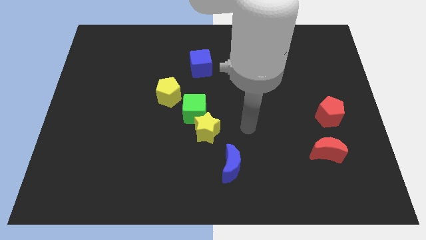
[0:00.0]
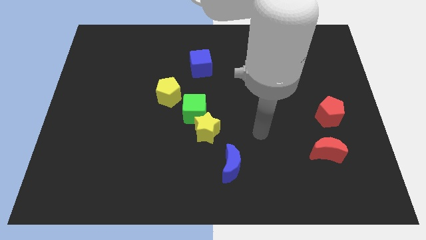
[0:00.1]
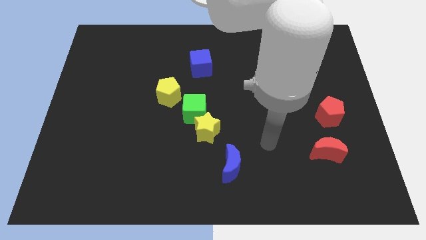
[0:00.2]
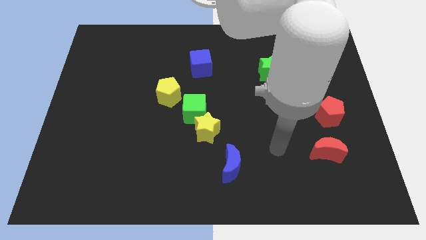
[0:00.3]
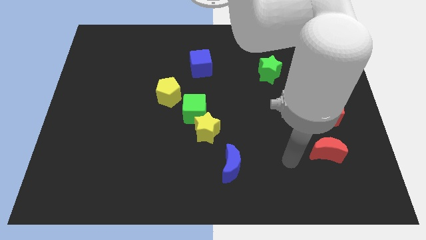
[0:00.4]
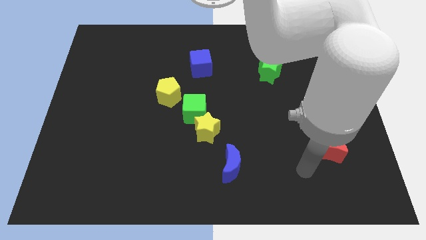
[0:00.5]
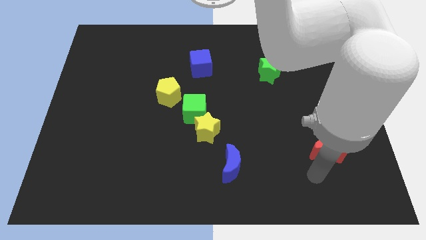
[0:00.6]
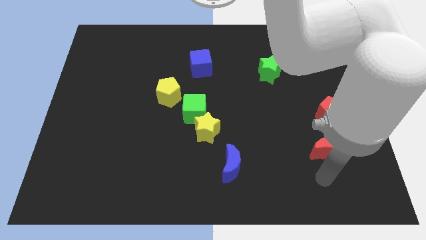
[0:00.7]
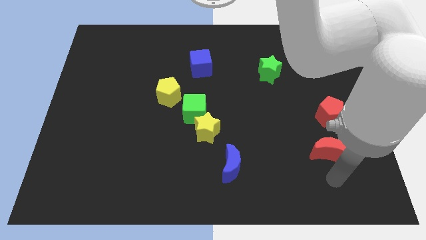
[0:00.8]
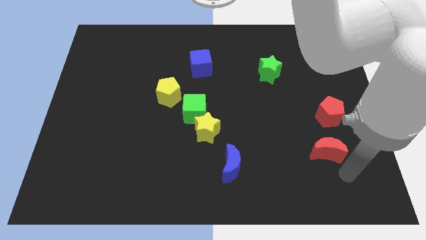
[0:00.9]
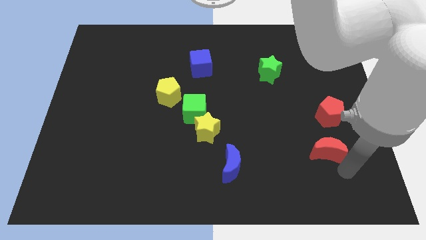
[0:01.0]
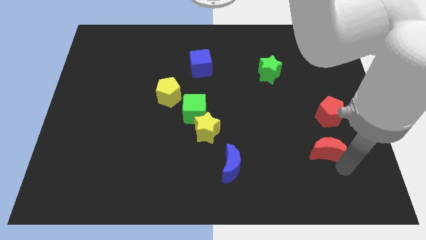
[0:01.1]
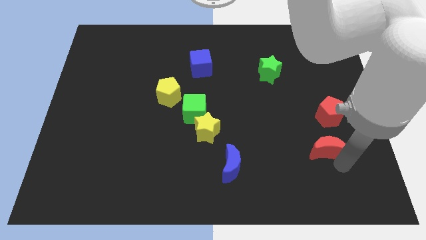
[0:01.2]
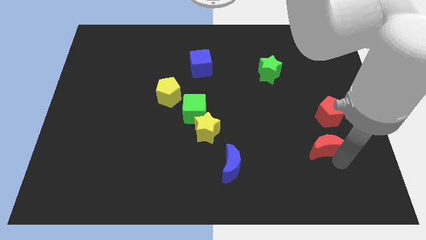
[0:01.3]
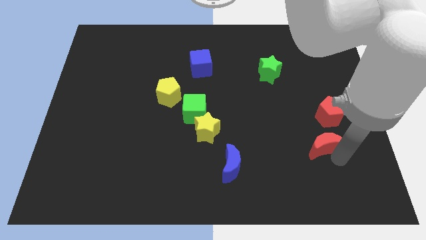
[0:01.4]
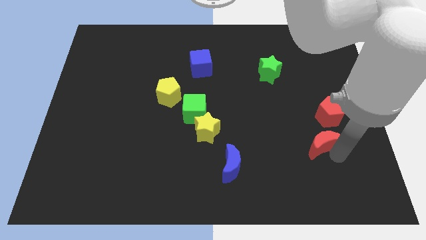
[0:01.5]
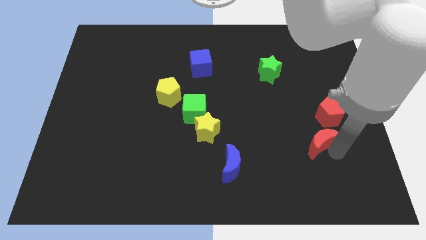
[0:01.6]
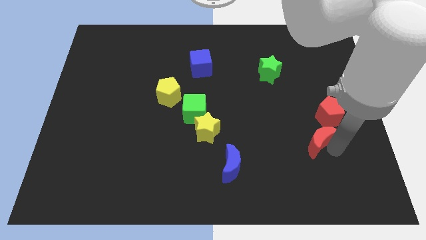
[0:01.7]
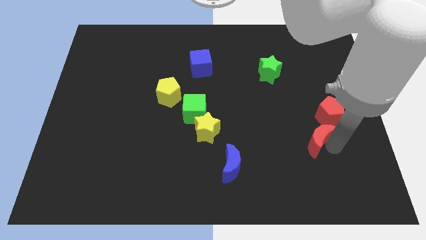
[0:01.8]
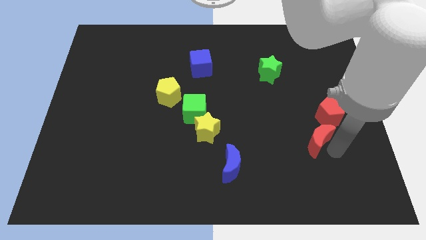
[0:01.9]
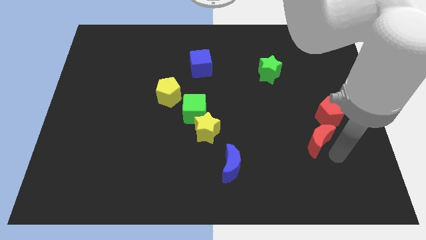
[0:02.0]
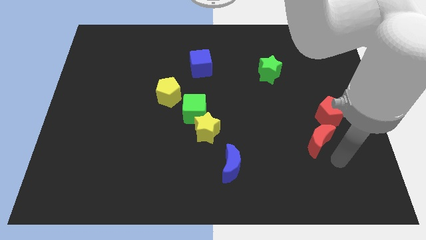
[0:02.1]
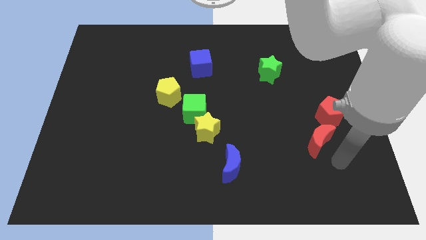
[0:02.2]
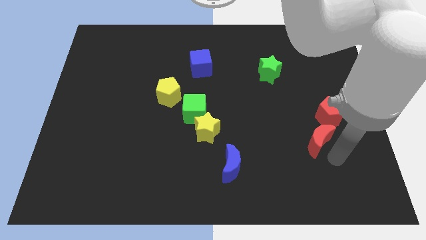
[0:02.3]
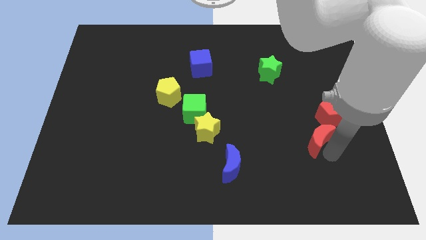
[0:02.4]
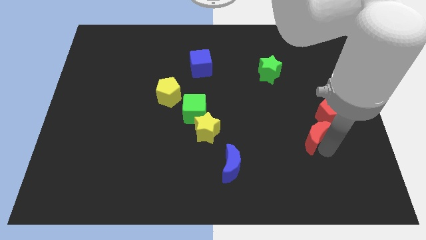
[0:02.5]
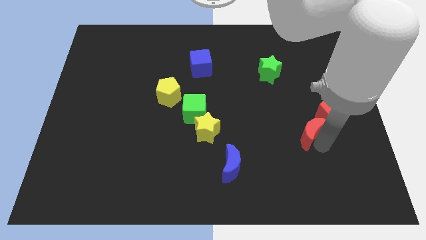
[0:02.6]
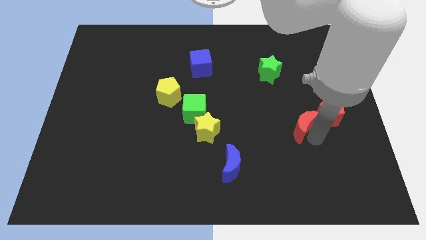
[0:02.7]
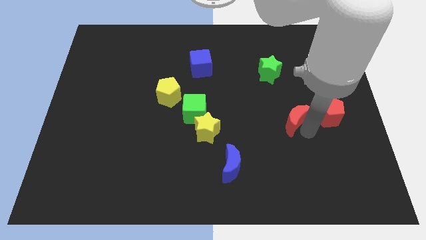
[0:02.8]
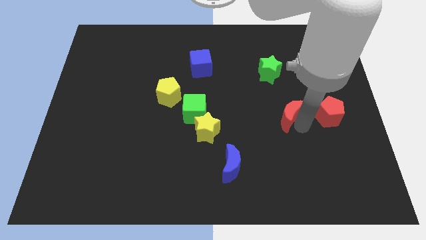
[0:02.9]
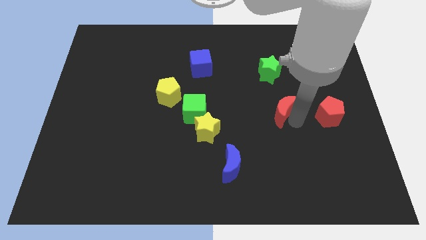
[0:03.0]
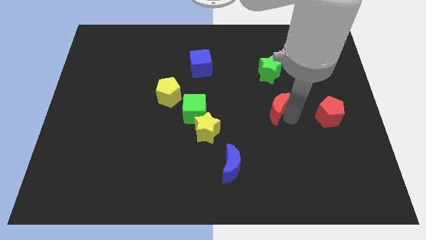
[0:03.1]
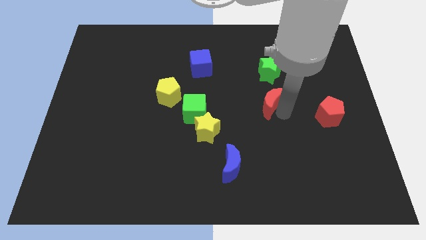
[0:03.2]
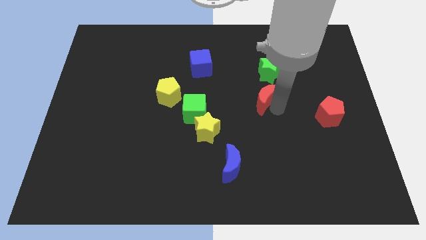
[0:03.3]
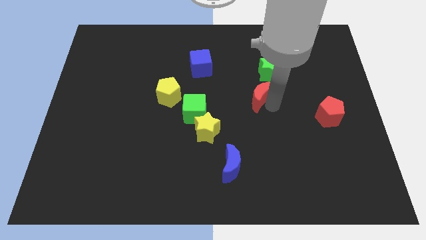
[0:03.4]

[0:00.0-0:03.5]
push the red moon up and left

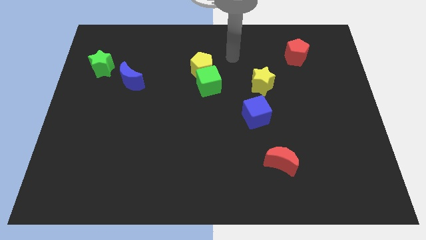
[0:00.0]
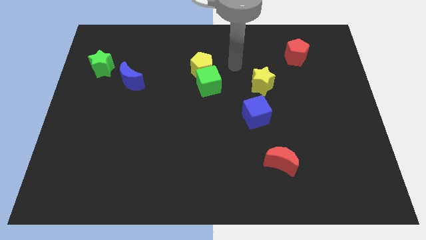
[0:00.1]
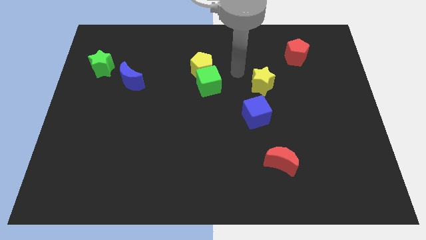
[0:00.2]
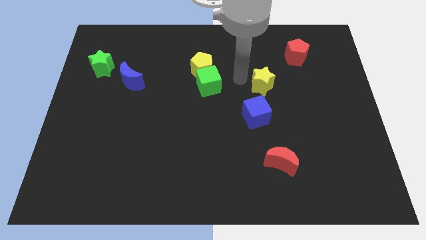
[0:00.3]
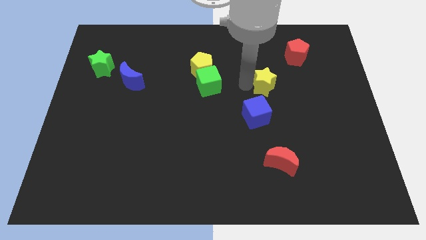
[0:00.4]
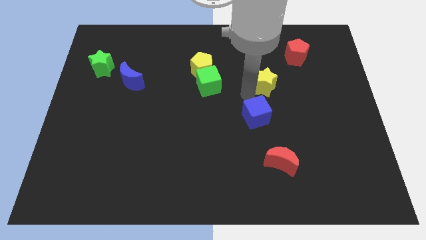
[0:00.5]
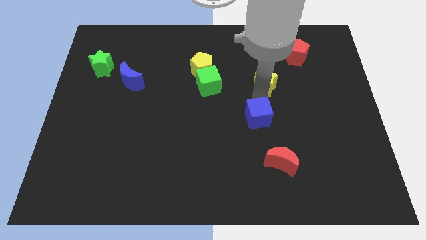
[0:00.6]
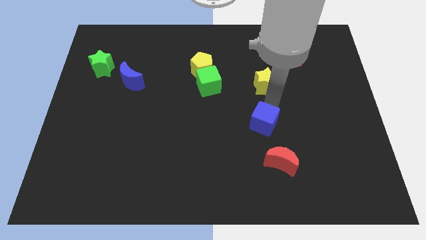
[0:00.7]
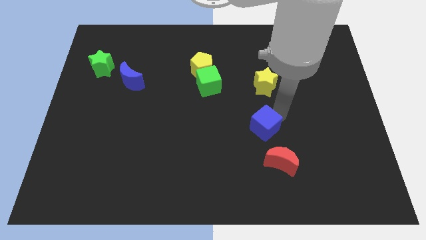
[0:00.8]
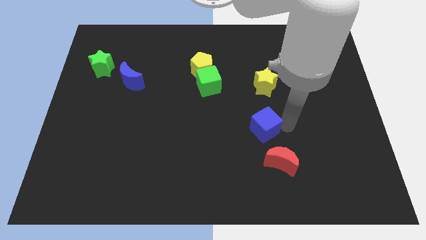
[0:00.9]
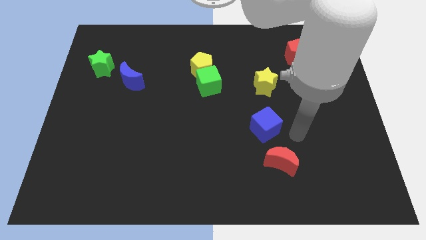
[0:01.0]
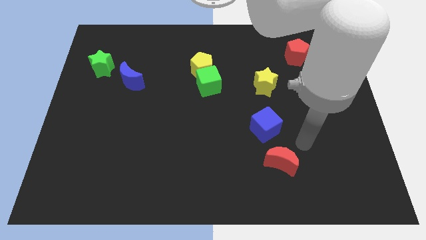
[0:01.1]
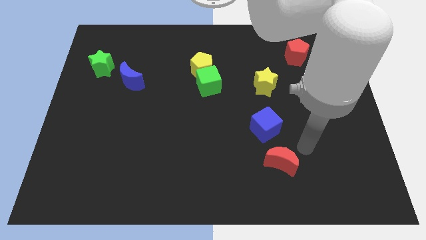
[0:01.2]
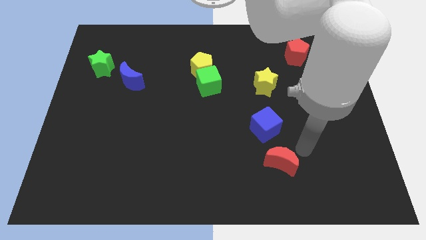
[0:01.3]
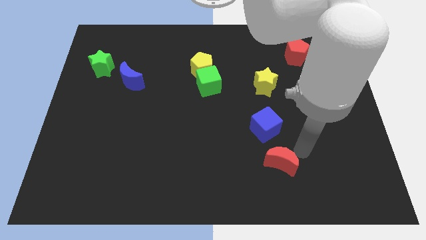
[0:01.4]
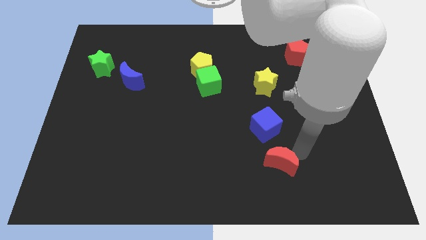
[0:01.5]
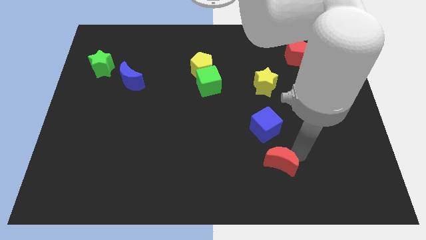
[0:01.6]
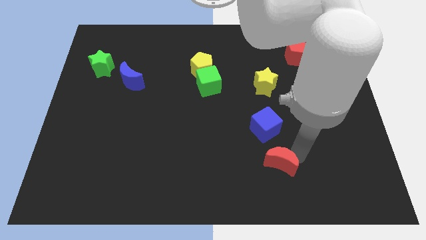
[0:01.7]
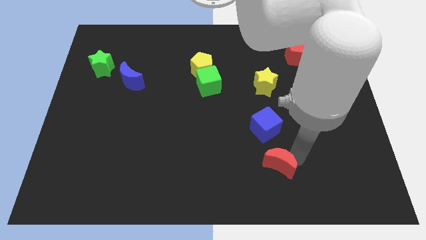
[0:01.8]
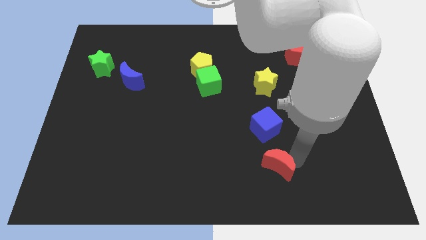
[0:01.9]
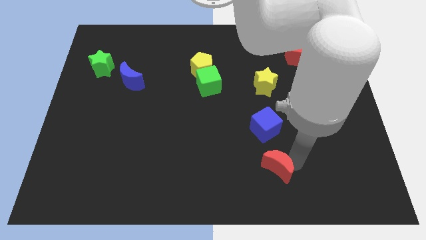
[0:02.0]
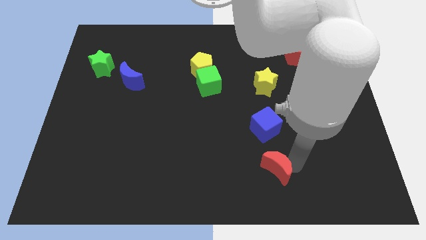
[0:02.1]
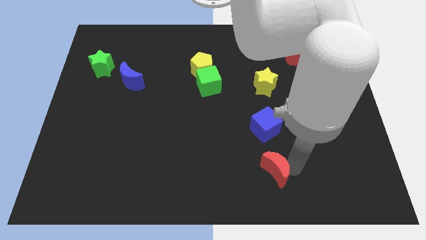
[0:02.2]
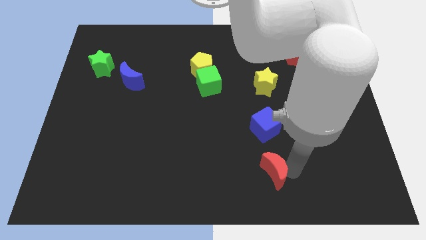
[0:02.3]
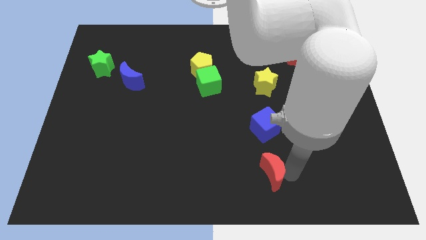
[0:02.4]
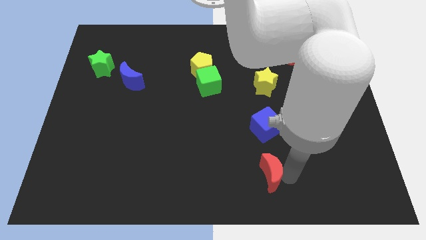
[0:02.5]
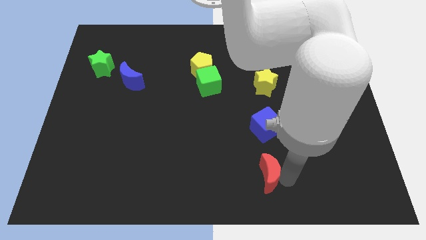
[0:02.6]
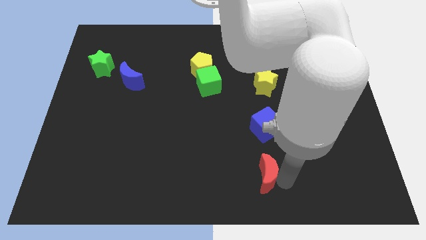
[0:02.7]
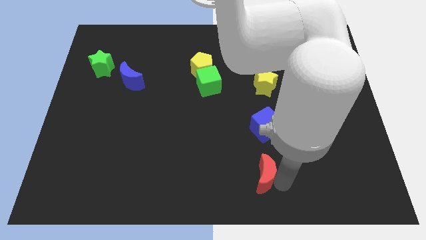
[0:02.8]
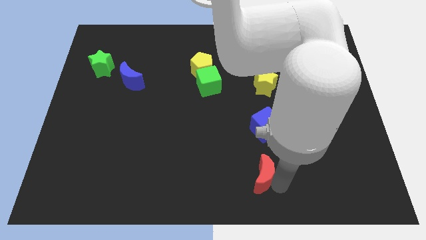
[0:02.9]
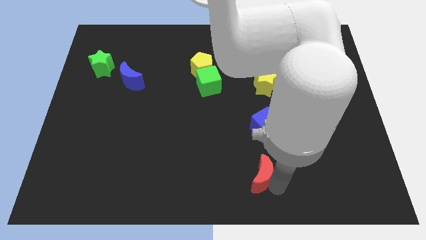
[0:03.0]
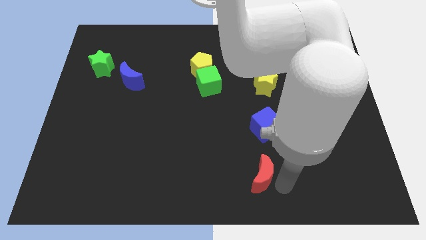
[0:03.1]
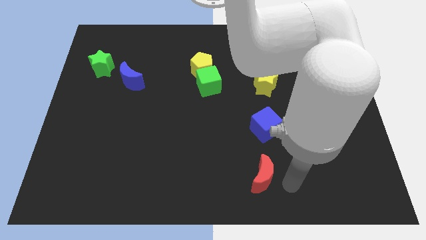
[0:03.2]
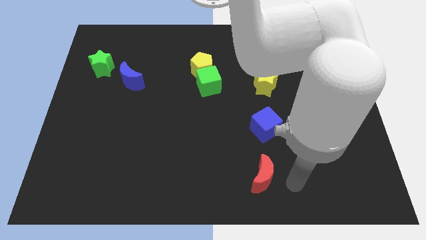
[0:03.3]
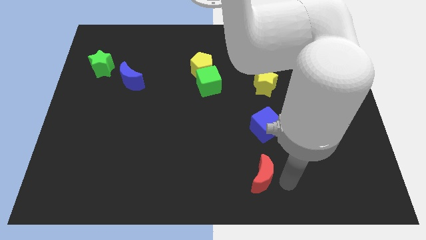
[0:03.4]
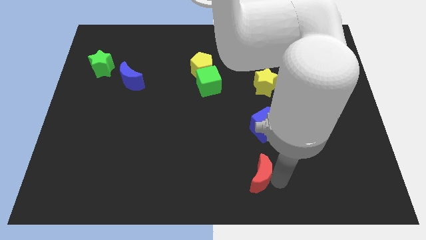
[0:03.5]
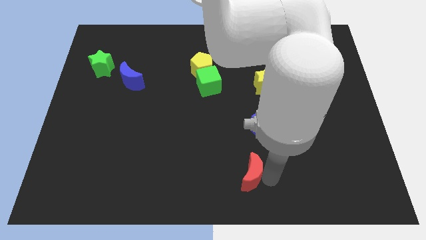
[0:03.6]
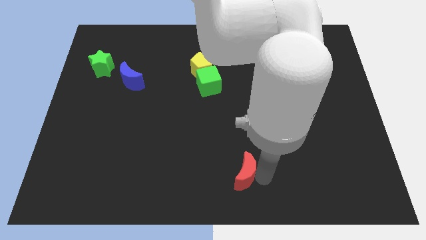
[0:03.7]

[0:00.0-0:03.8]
push the red moon a bit to the left

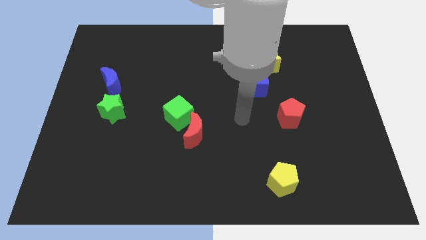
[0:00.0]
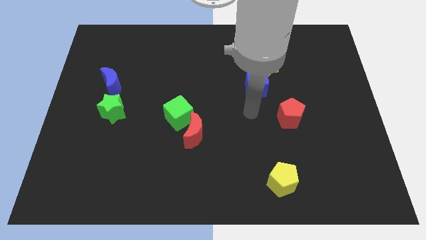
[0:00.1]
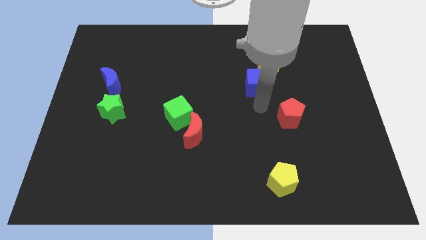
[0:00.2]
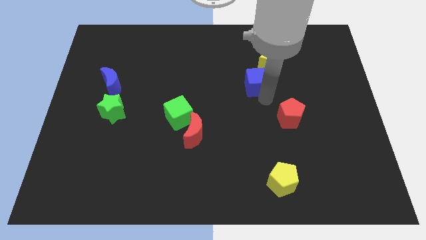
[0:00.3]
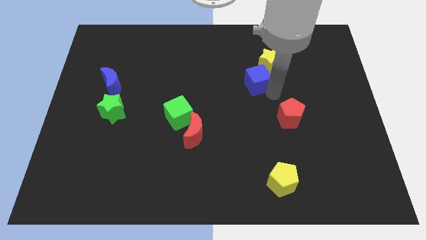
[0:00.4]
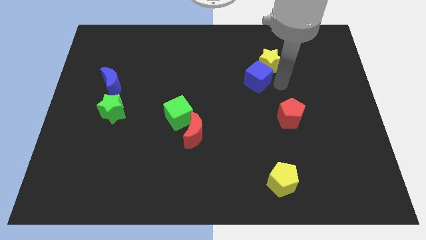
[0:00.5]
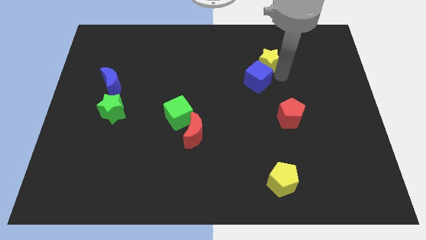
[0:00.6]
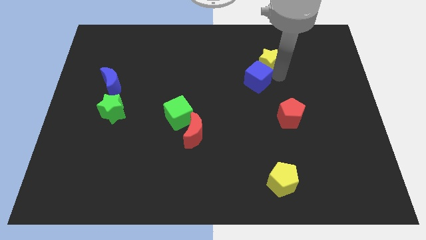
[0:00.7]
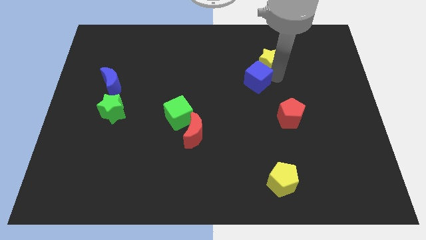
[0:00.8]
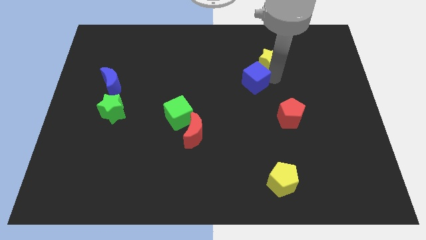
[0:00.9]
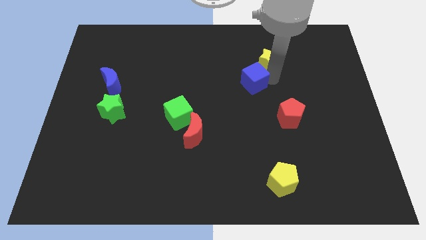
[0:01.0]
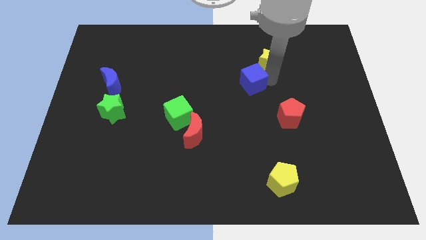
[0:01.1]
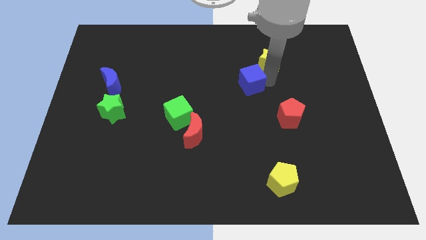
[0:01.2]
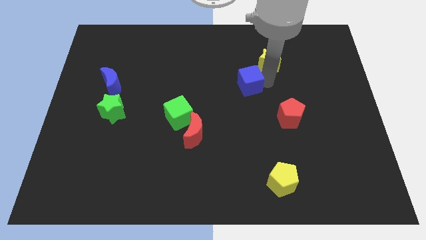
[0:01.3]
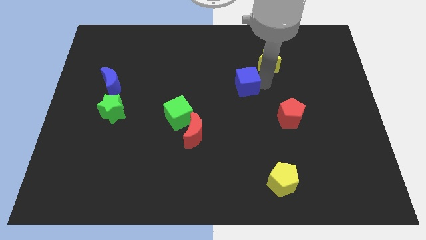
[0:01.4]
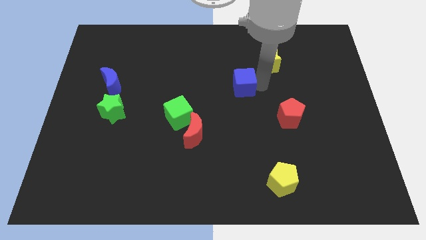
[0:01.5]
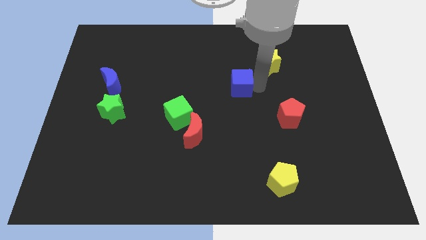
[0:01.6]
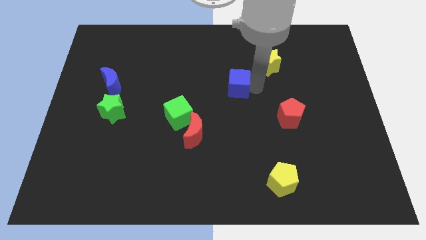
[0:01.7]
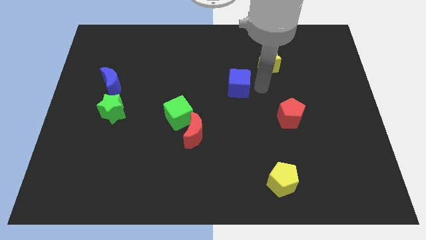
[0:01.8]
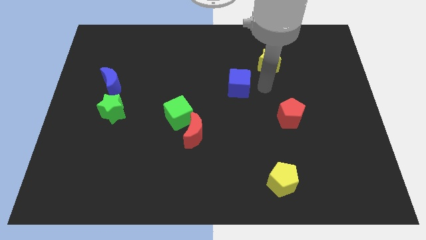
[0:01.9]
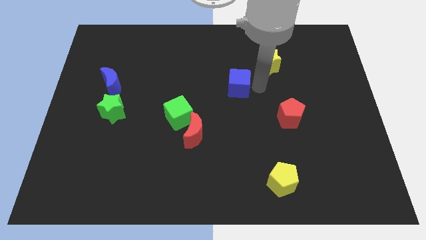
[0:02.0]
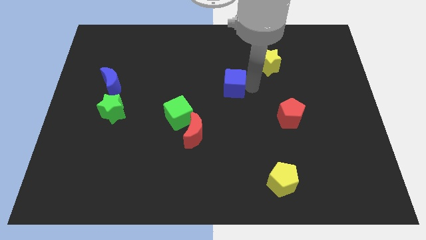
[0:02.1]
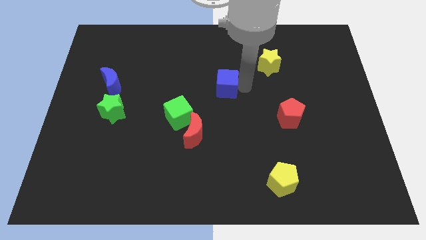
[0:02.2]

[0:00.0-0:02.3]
slide the blue cube a little to the left
